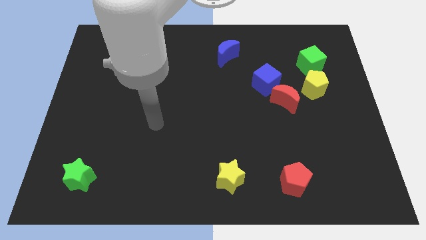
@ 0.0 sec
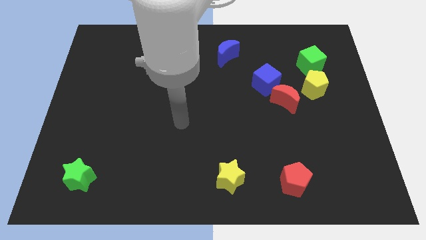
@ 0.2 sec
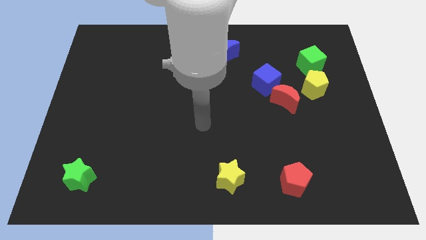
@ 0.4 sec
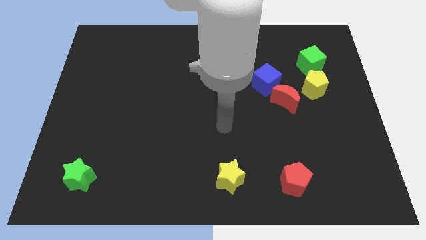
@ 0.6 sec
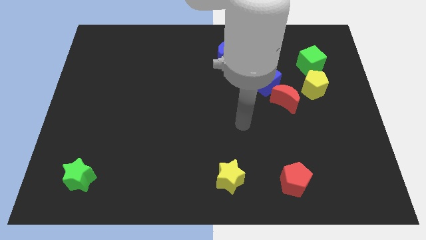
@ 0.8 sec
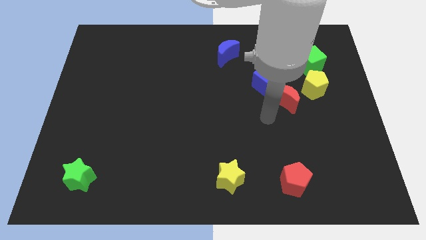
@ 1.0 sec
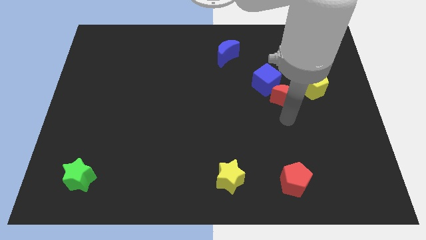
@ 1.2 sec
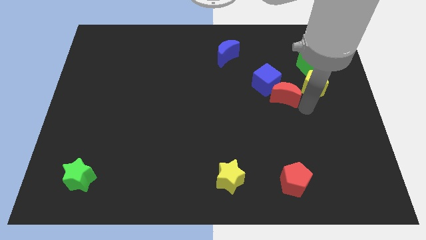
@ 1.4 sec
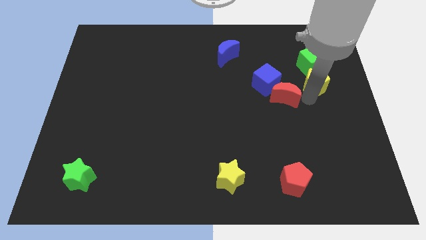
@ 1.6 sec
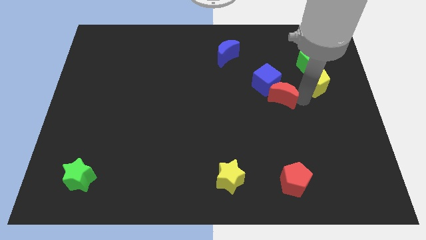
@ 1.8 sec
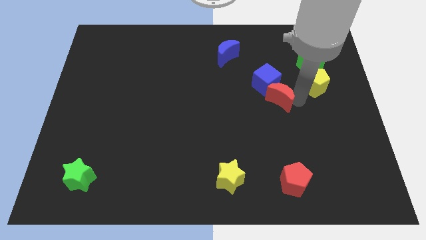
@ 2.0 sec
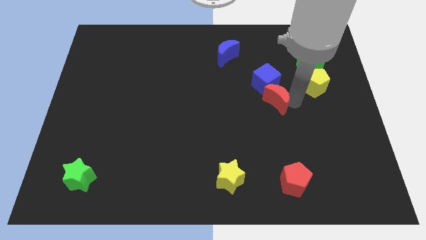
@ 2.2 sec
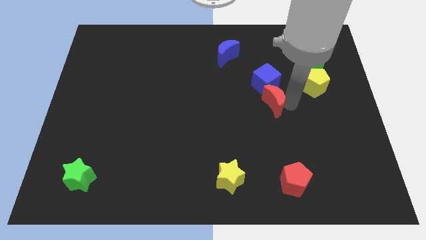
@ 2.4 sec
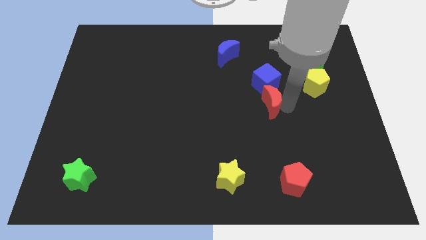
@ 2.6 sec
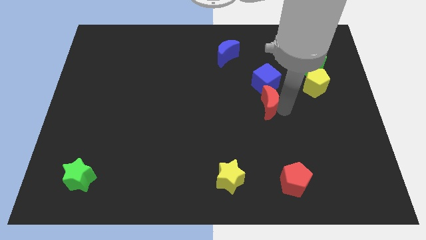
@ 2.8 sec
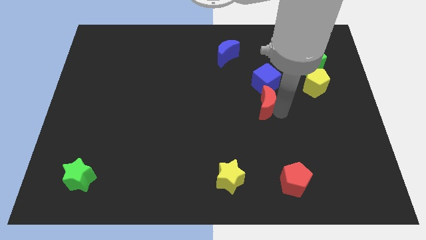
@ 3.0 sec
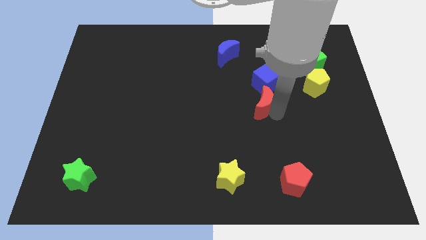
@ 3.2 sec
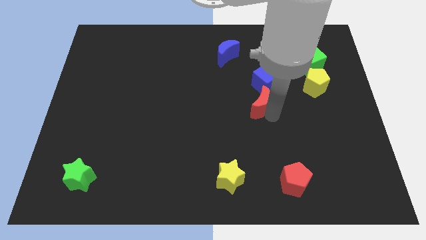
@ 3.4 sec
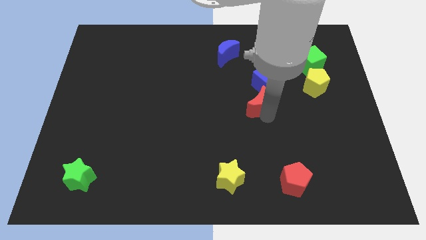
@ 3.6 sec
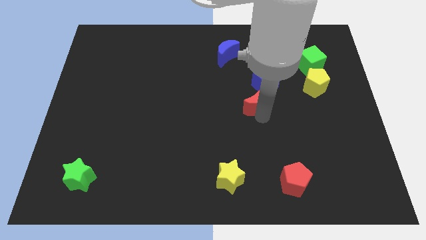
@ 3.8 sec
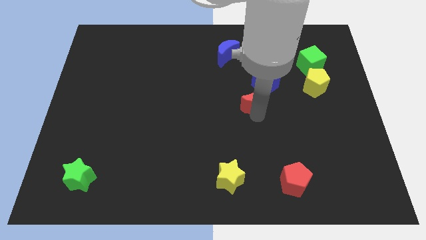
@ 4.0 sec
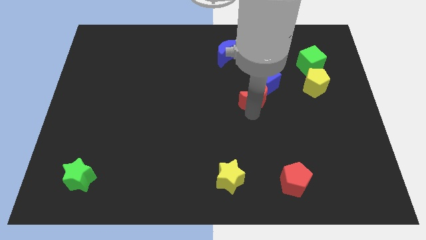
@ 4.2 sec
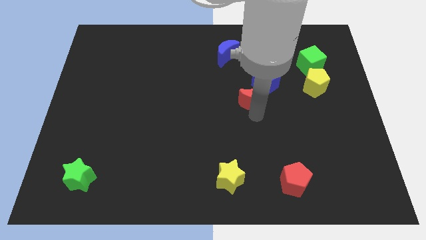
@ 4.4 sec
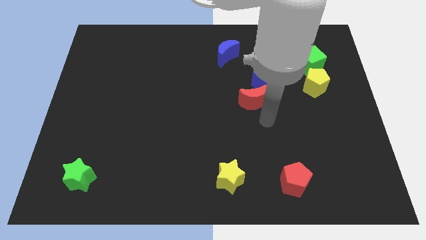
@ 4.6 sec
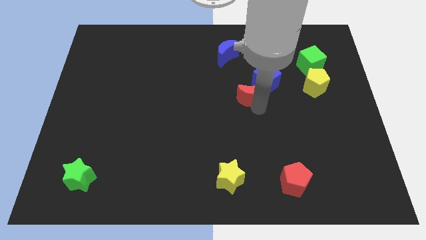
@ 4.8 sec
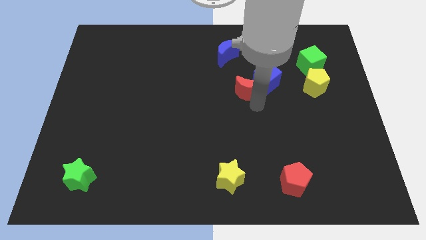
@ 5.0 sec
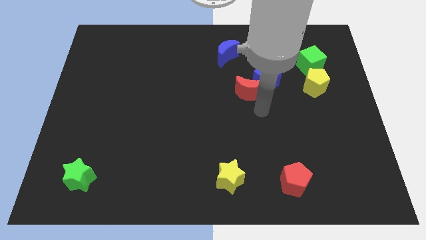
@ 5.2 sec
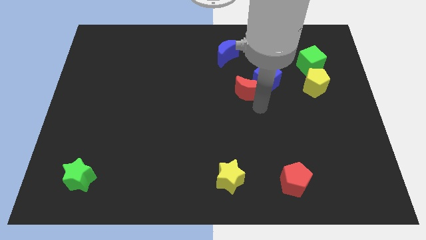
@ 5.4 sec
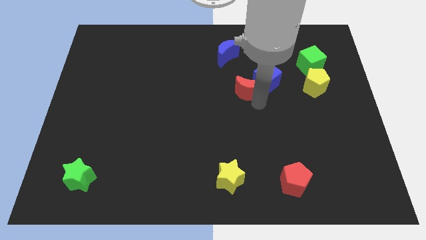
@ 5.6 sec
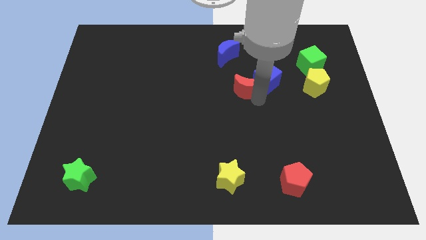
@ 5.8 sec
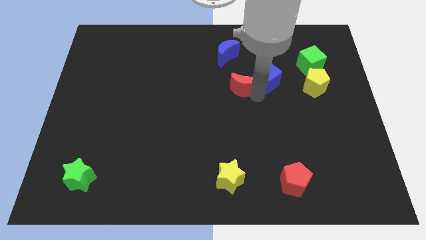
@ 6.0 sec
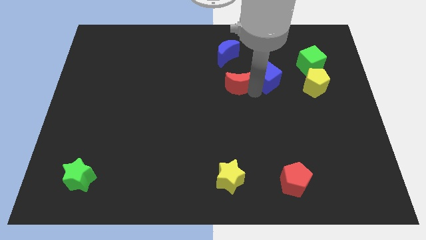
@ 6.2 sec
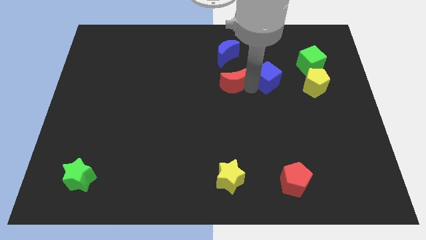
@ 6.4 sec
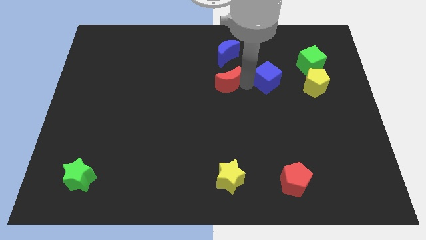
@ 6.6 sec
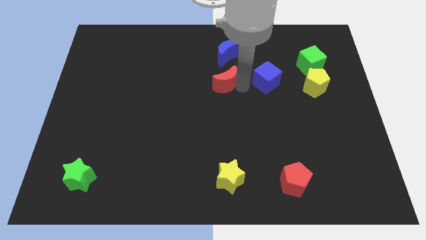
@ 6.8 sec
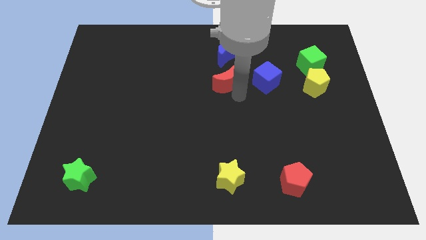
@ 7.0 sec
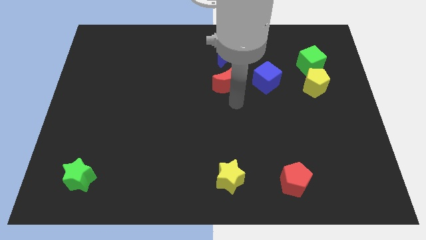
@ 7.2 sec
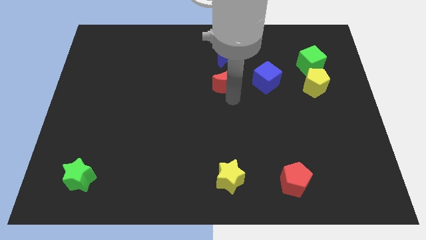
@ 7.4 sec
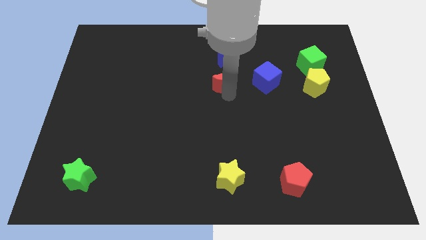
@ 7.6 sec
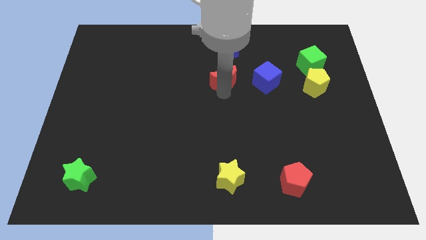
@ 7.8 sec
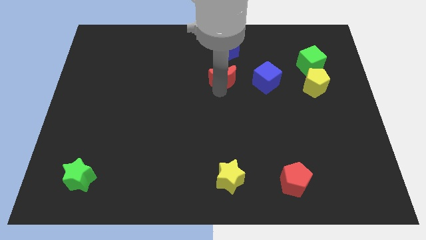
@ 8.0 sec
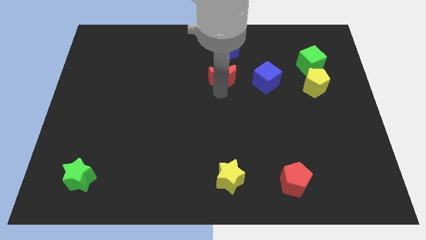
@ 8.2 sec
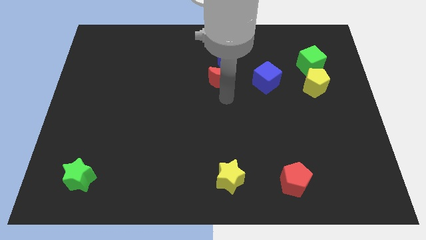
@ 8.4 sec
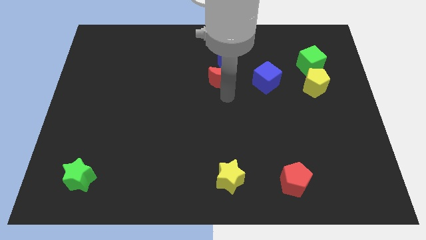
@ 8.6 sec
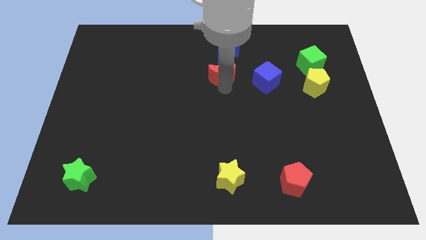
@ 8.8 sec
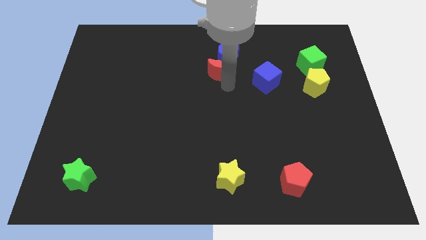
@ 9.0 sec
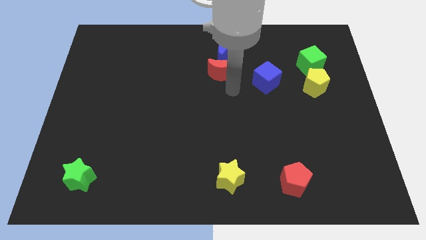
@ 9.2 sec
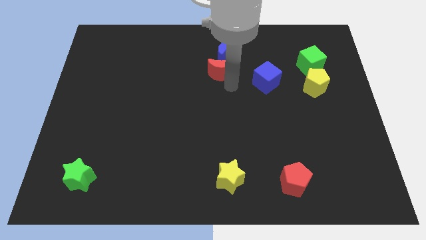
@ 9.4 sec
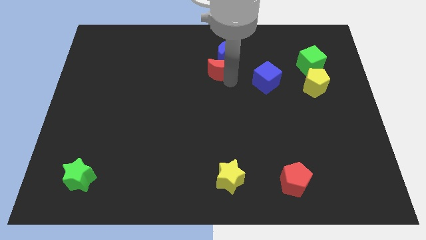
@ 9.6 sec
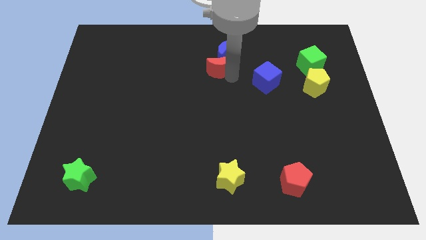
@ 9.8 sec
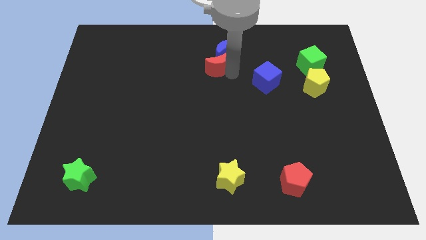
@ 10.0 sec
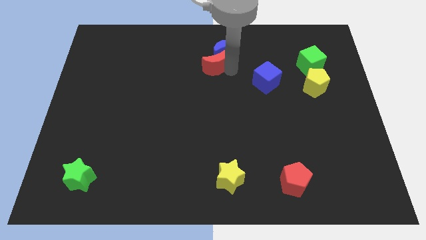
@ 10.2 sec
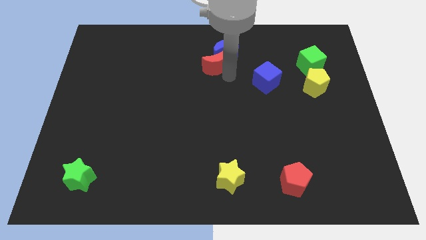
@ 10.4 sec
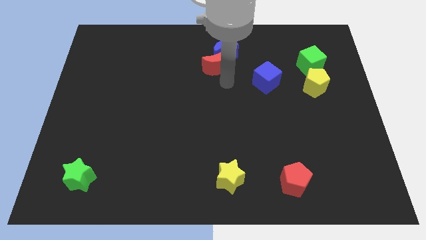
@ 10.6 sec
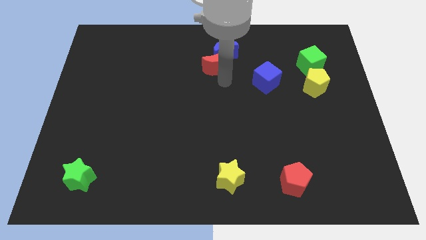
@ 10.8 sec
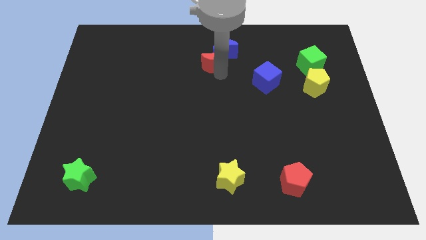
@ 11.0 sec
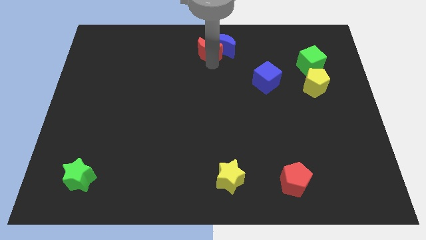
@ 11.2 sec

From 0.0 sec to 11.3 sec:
move the red moon to the top side

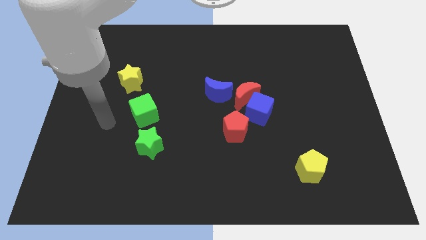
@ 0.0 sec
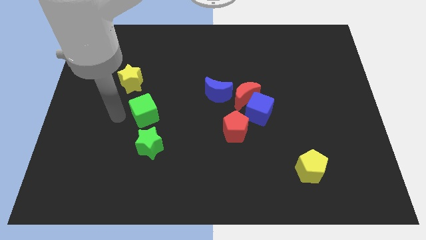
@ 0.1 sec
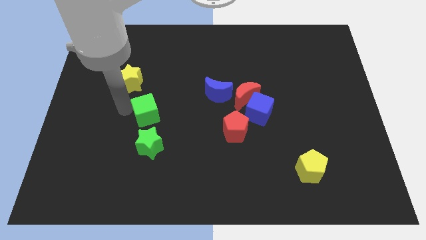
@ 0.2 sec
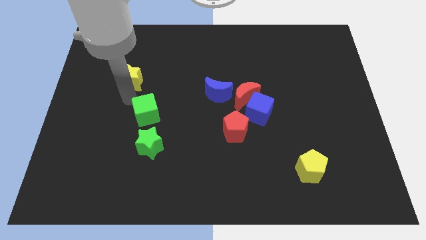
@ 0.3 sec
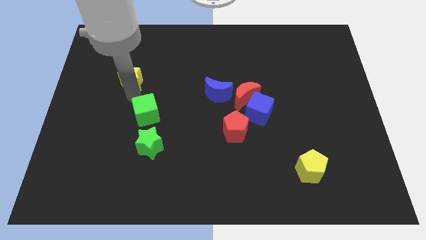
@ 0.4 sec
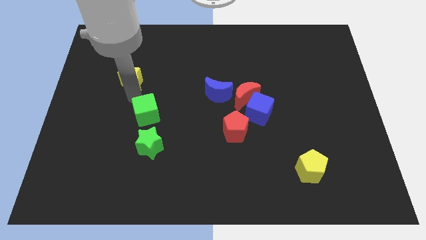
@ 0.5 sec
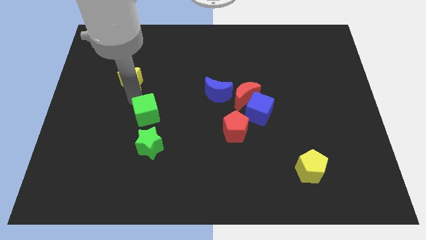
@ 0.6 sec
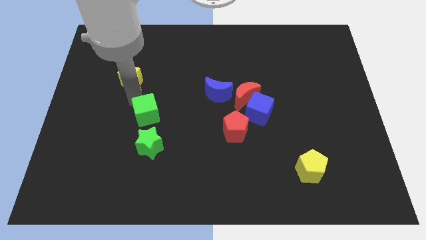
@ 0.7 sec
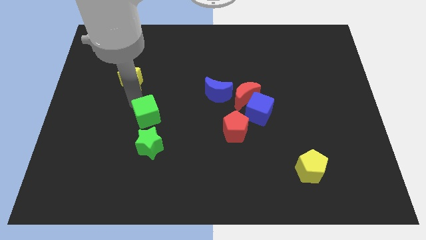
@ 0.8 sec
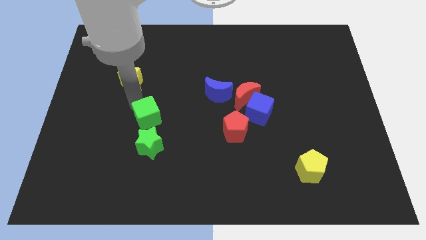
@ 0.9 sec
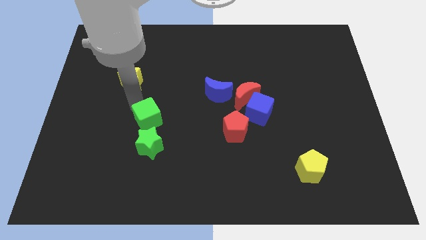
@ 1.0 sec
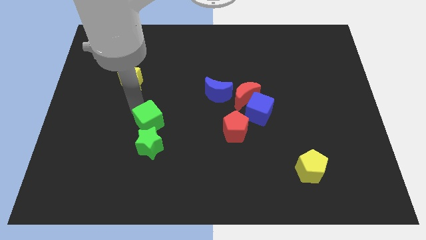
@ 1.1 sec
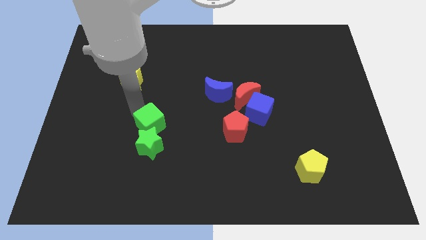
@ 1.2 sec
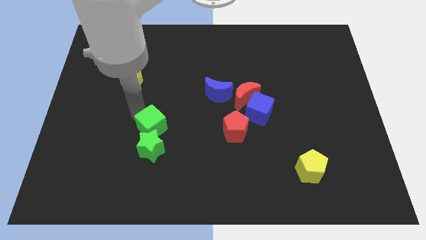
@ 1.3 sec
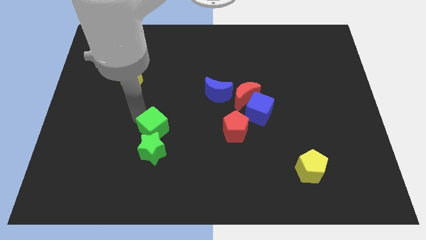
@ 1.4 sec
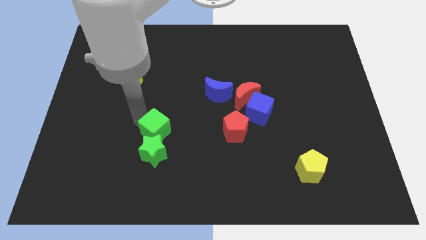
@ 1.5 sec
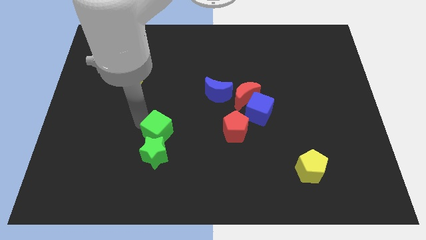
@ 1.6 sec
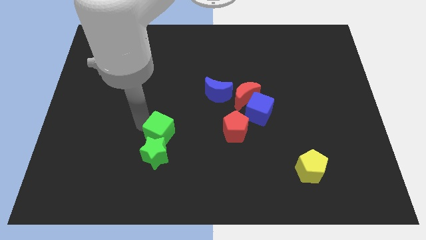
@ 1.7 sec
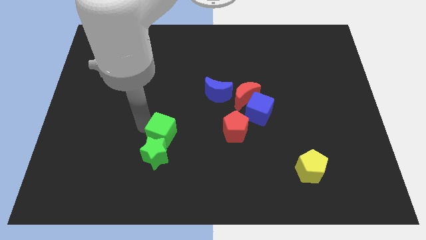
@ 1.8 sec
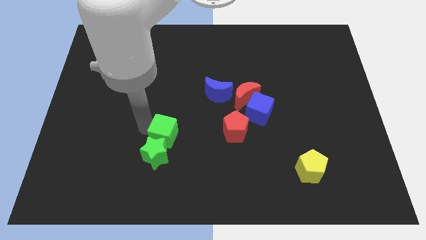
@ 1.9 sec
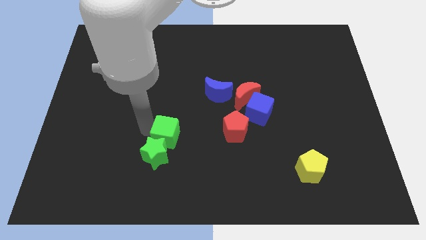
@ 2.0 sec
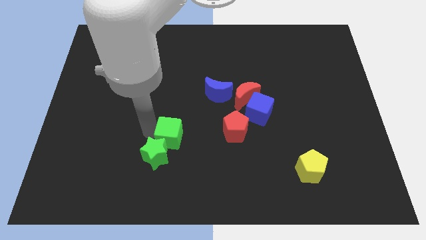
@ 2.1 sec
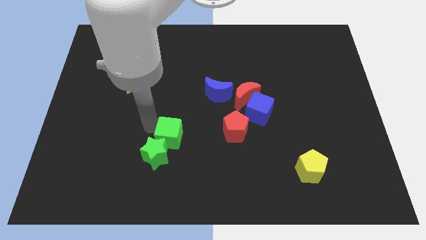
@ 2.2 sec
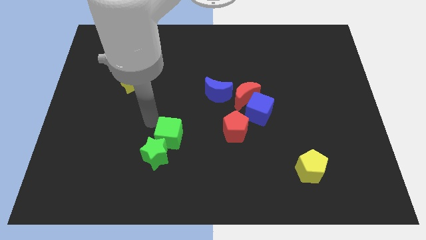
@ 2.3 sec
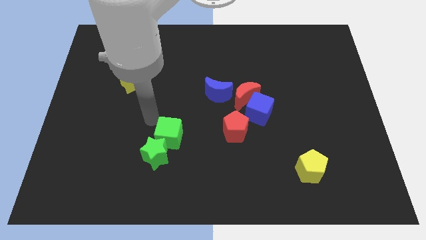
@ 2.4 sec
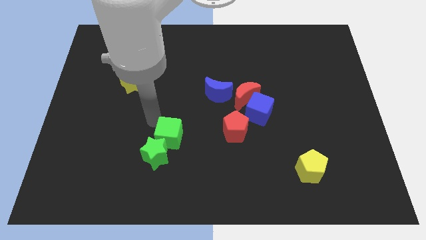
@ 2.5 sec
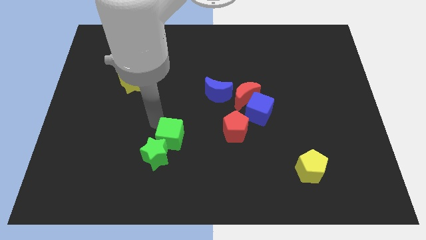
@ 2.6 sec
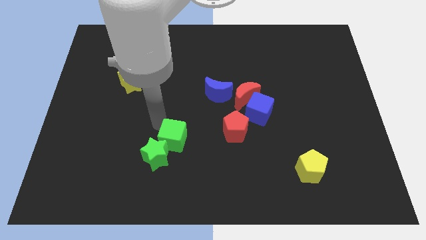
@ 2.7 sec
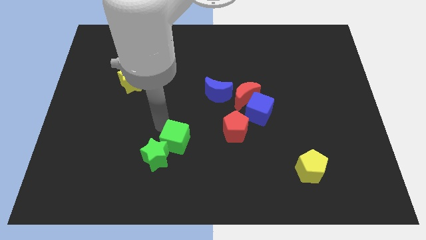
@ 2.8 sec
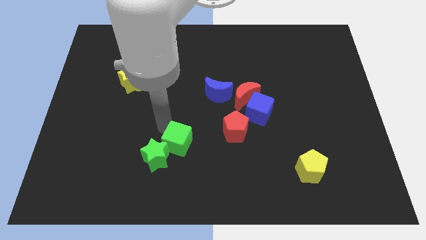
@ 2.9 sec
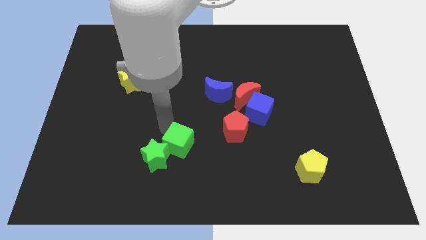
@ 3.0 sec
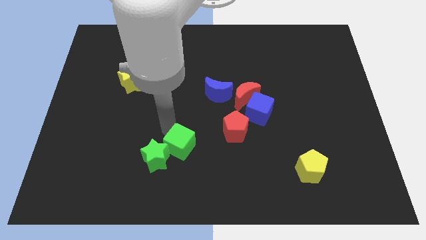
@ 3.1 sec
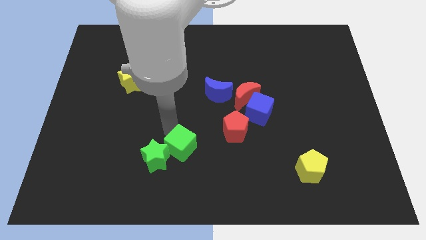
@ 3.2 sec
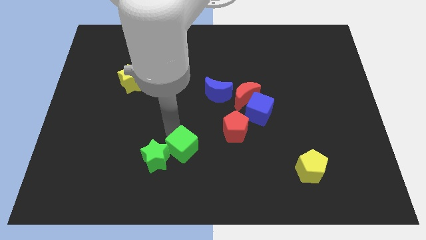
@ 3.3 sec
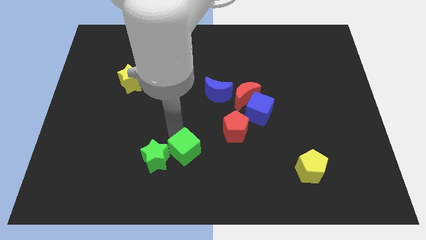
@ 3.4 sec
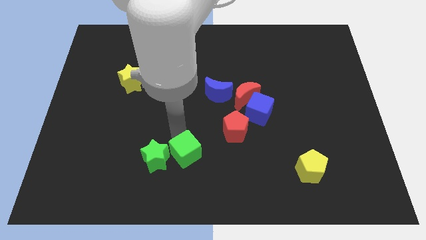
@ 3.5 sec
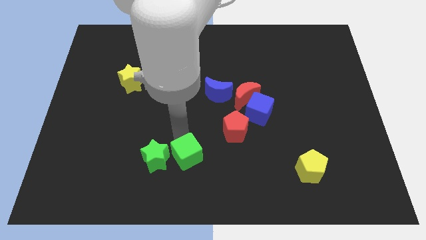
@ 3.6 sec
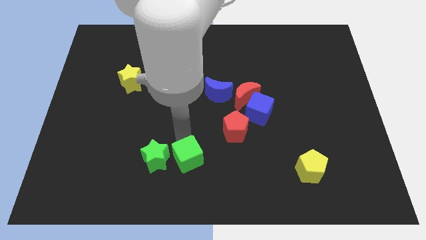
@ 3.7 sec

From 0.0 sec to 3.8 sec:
push the green cube to the bottom side
